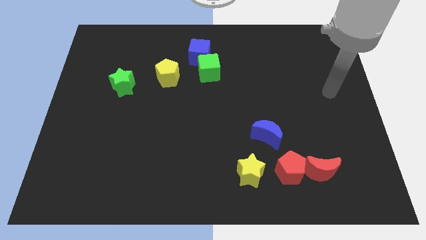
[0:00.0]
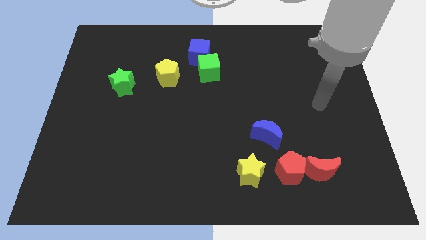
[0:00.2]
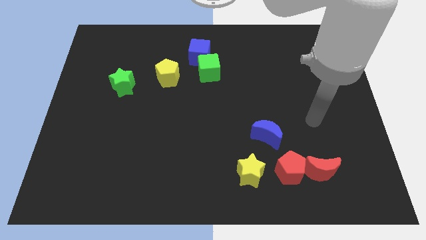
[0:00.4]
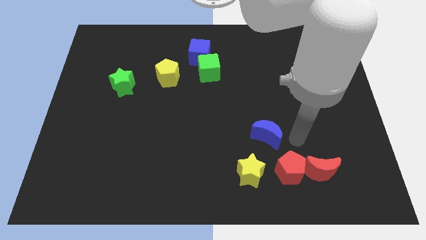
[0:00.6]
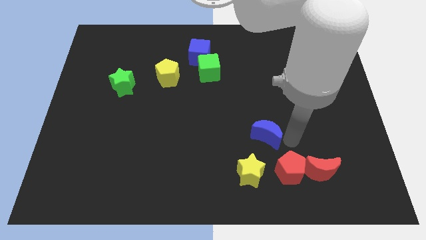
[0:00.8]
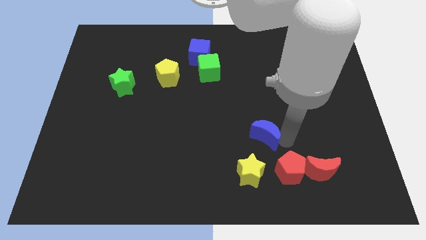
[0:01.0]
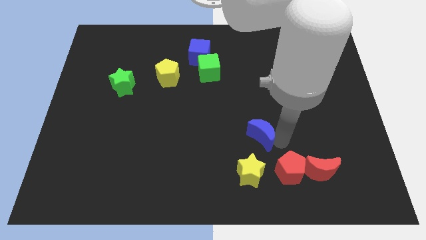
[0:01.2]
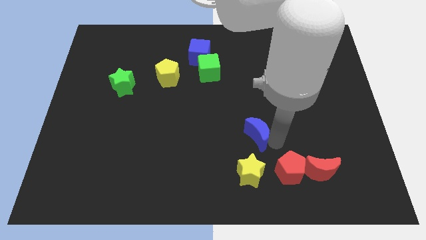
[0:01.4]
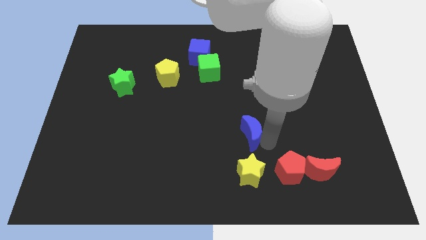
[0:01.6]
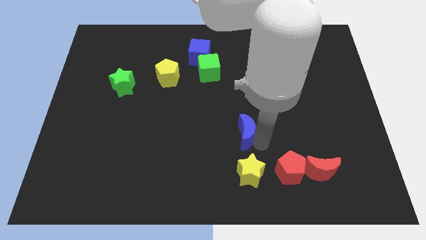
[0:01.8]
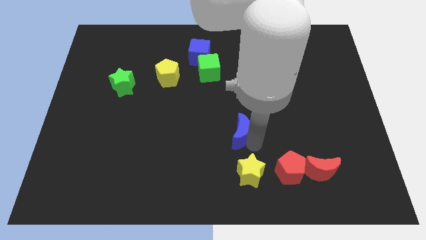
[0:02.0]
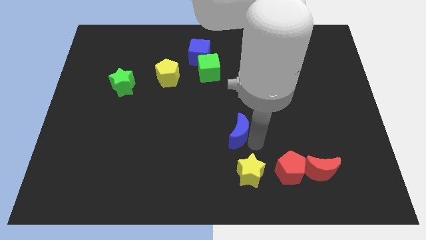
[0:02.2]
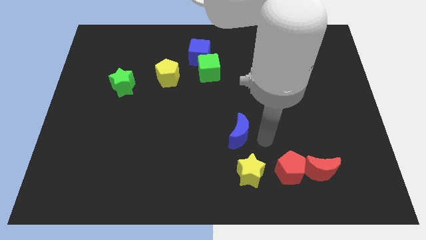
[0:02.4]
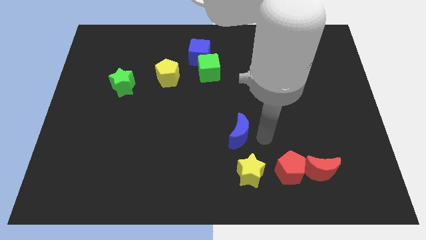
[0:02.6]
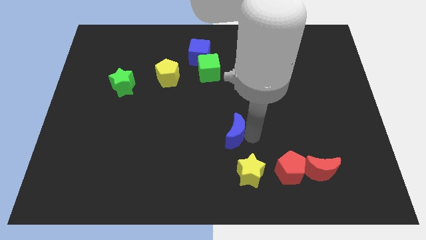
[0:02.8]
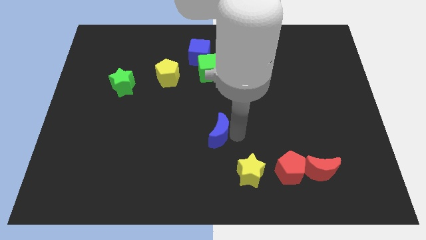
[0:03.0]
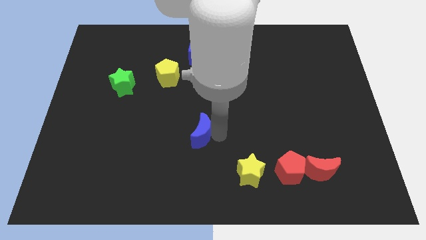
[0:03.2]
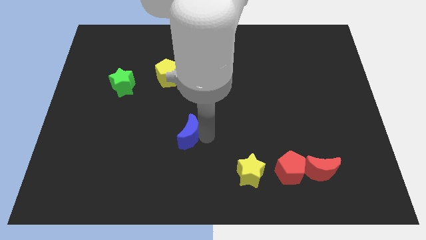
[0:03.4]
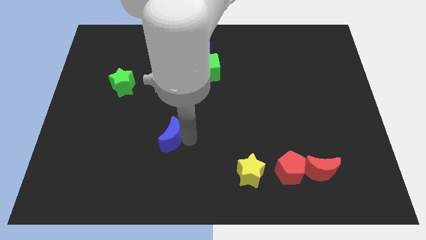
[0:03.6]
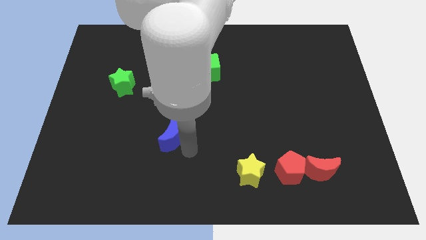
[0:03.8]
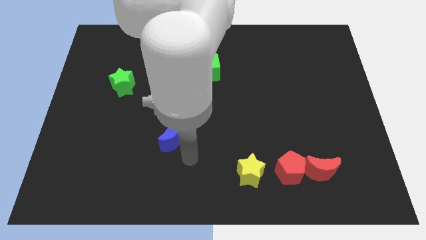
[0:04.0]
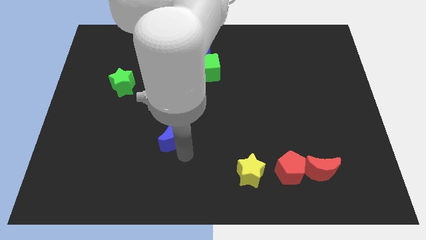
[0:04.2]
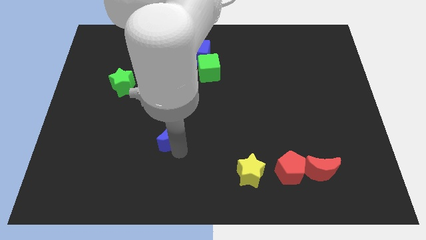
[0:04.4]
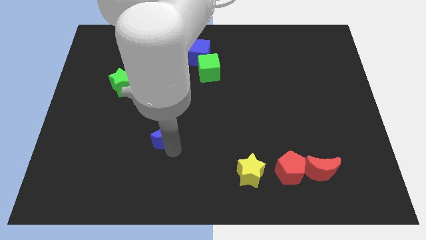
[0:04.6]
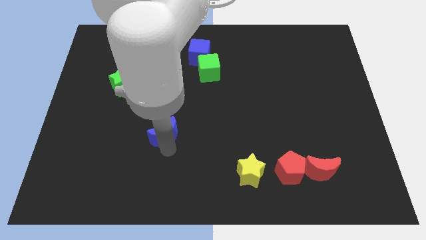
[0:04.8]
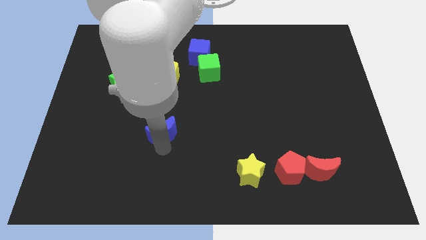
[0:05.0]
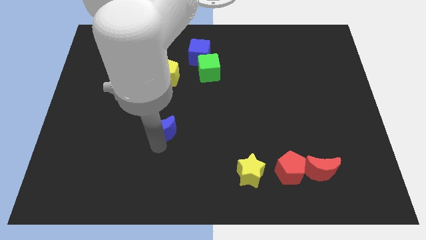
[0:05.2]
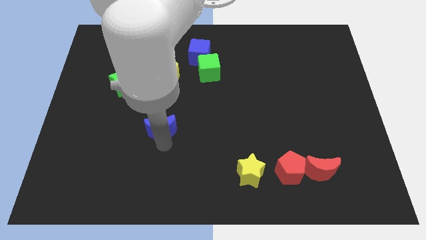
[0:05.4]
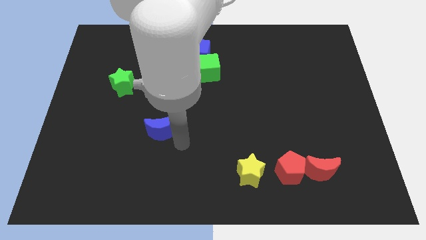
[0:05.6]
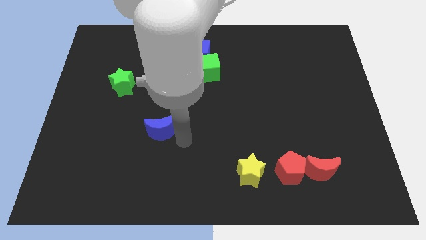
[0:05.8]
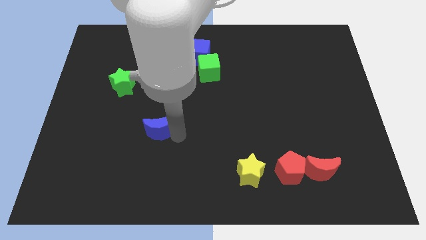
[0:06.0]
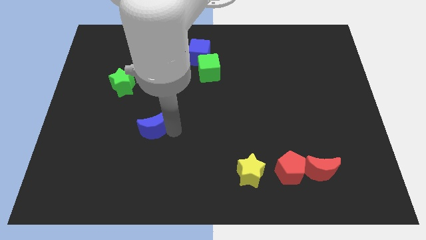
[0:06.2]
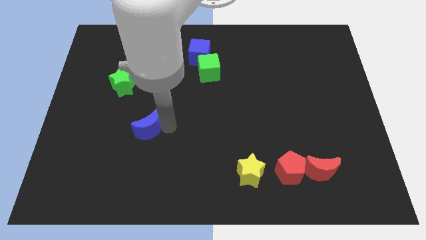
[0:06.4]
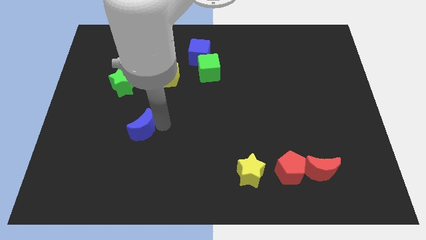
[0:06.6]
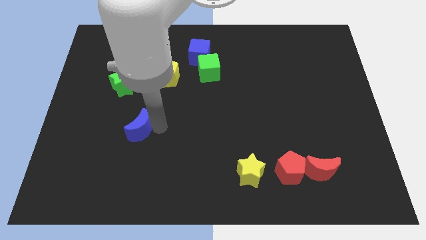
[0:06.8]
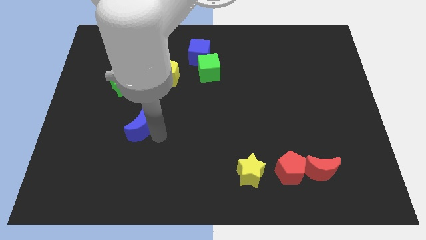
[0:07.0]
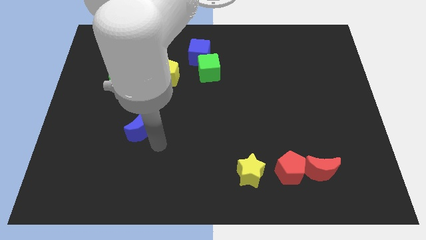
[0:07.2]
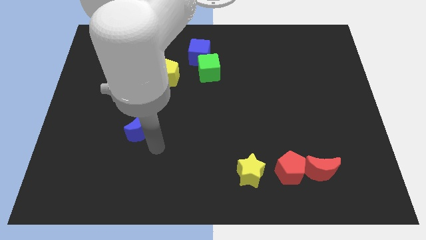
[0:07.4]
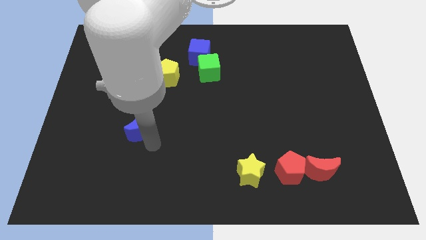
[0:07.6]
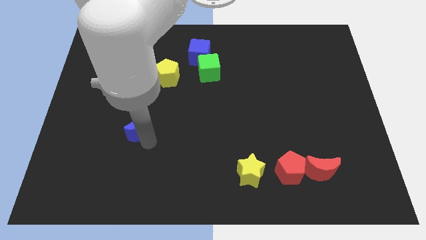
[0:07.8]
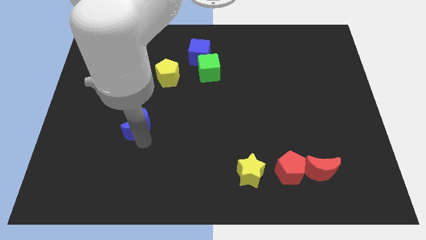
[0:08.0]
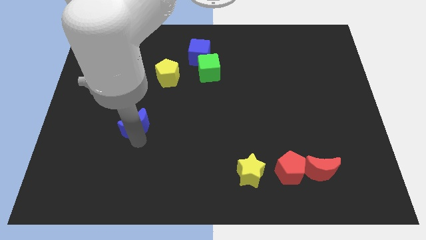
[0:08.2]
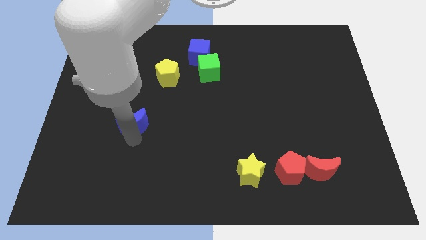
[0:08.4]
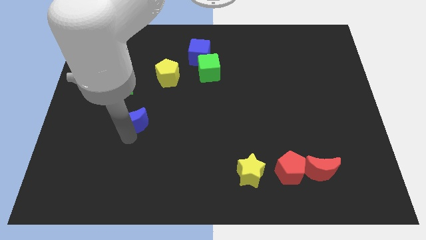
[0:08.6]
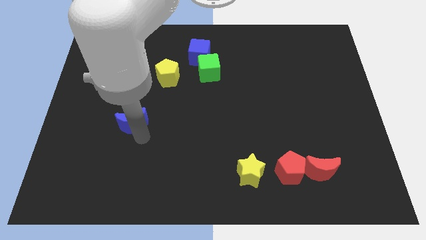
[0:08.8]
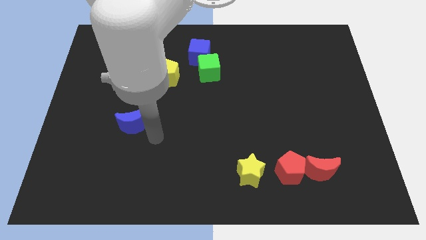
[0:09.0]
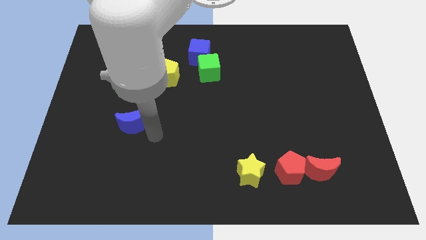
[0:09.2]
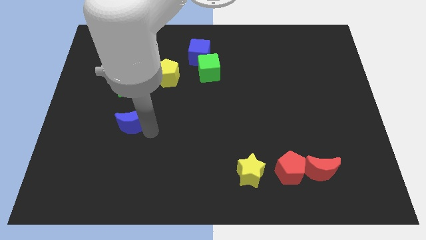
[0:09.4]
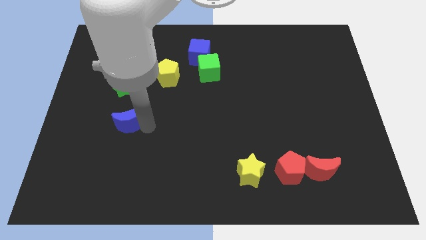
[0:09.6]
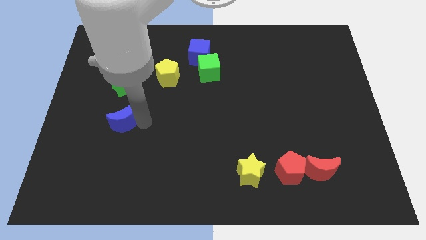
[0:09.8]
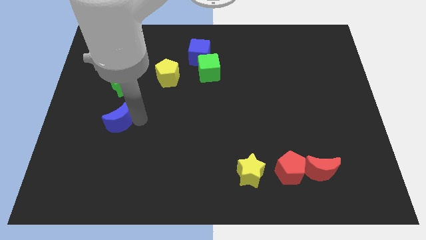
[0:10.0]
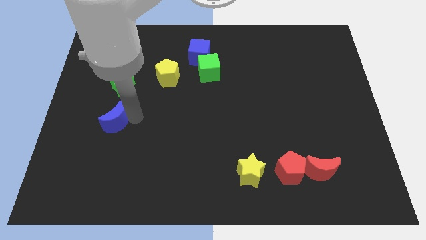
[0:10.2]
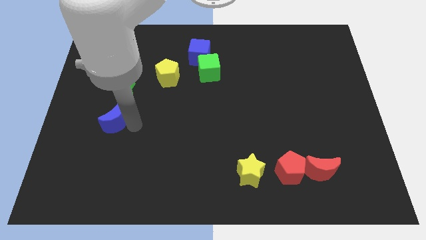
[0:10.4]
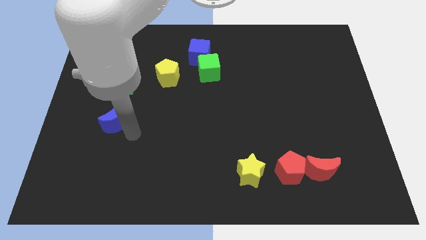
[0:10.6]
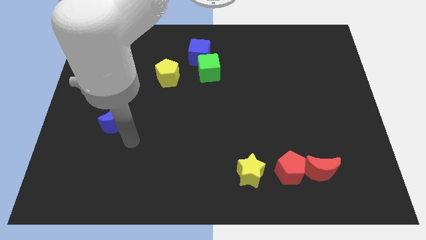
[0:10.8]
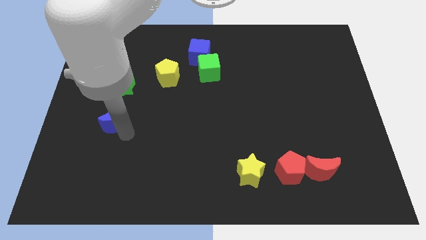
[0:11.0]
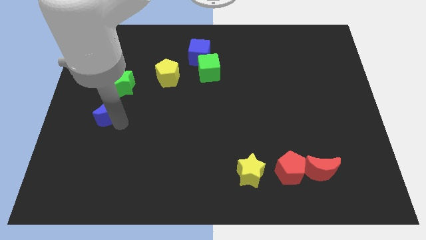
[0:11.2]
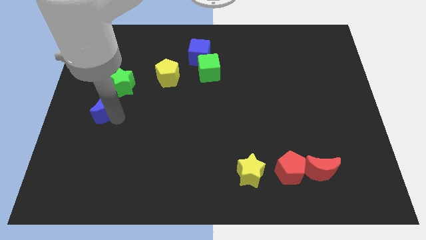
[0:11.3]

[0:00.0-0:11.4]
put the blue moon to the center left

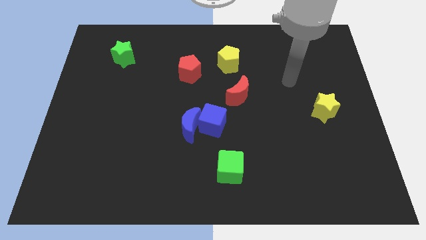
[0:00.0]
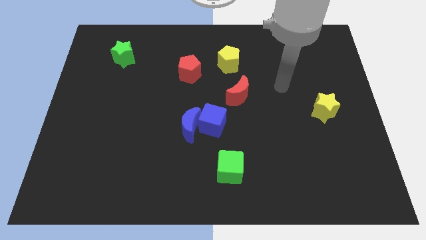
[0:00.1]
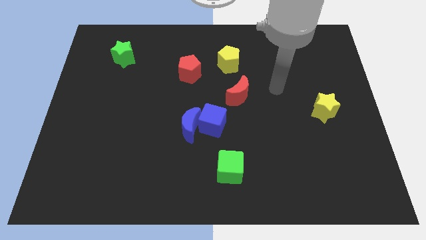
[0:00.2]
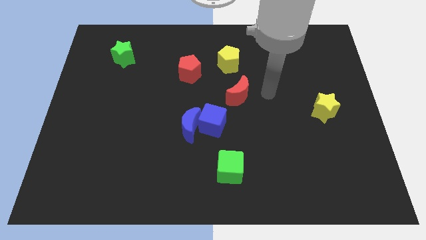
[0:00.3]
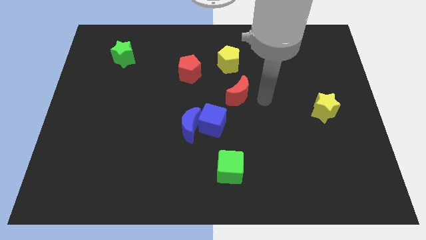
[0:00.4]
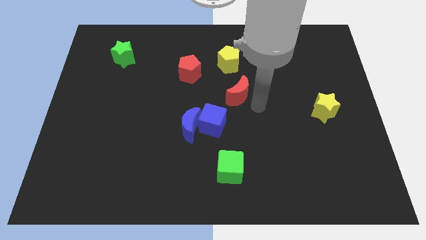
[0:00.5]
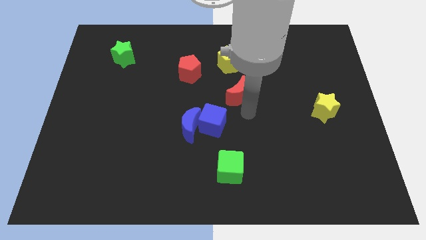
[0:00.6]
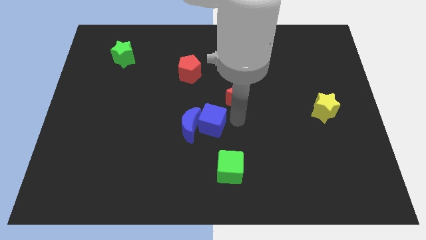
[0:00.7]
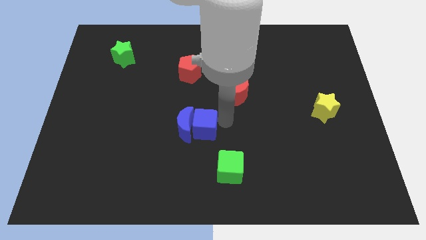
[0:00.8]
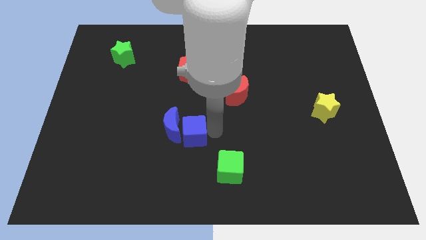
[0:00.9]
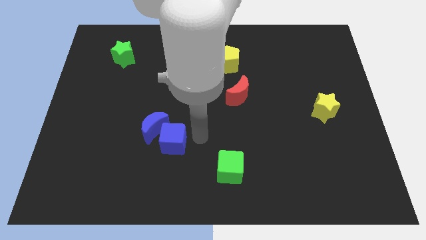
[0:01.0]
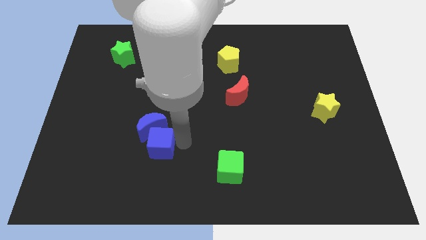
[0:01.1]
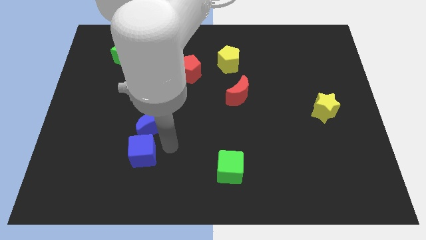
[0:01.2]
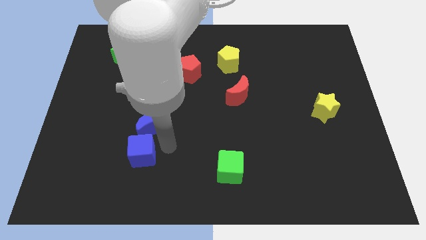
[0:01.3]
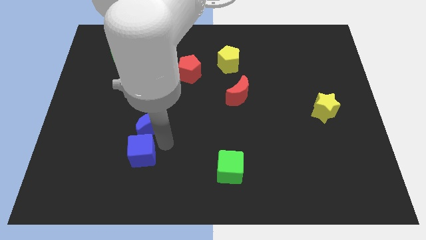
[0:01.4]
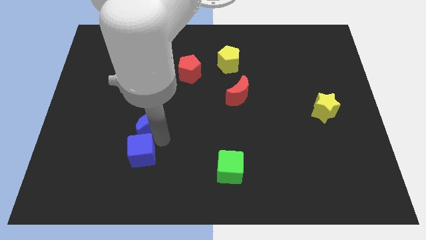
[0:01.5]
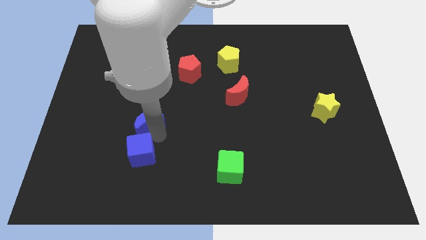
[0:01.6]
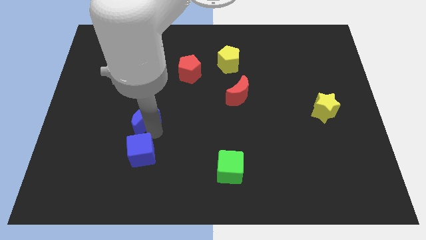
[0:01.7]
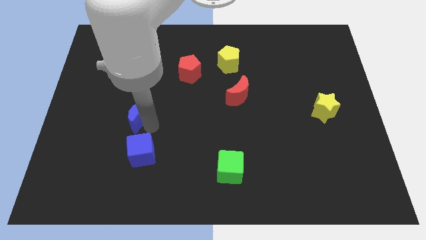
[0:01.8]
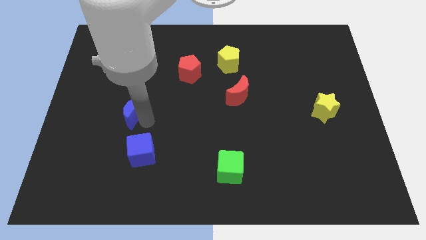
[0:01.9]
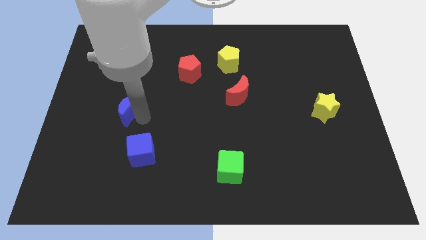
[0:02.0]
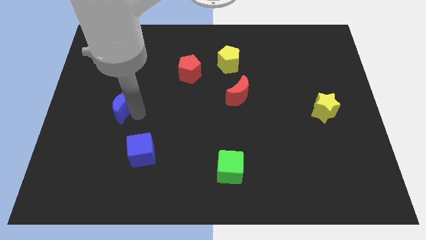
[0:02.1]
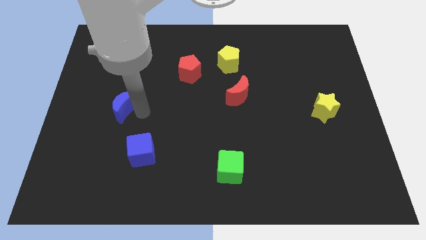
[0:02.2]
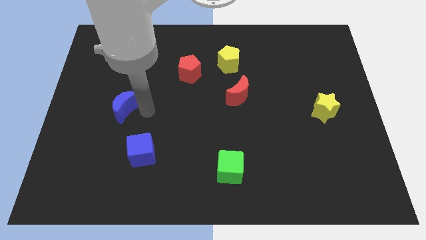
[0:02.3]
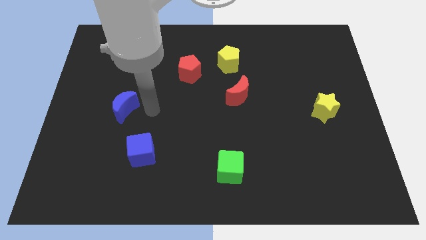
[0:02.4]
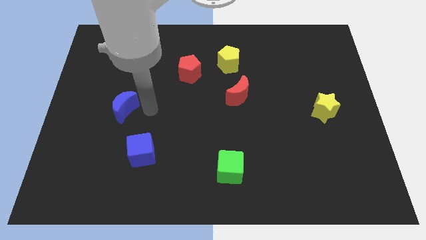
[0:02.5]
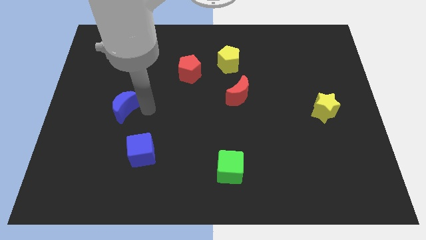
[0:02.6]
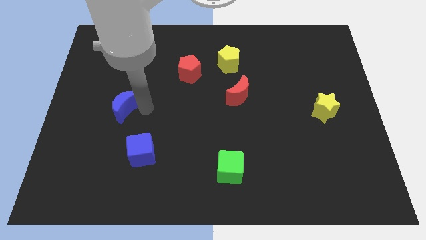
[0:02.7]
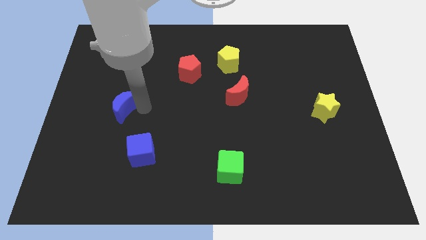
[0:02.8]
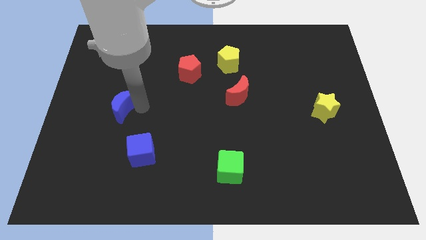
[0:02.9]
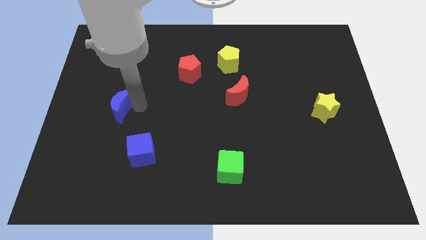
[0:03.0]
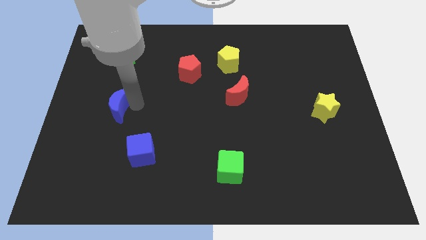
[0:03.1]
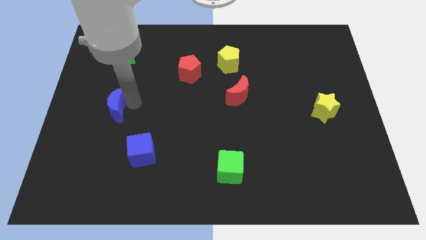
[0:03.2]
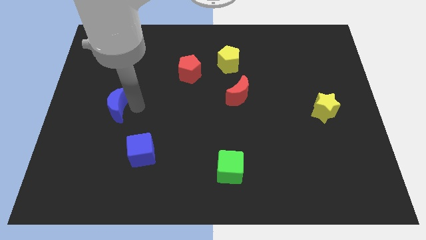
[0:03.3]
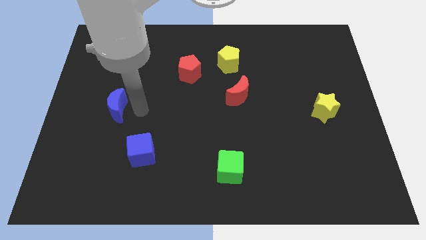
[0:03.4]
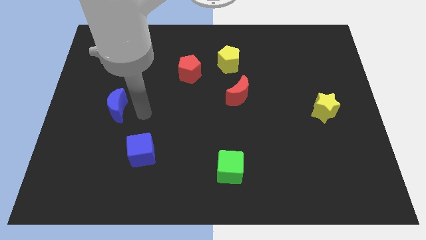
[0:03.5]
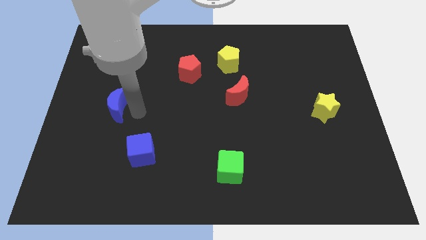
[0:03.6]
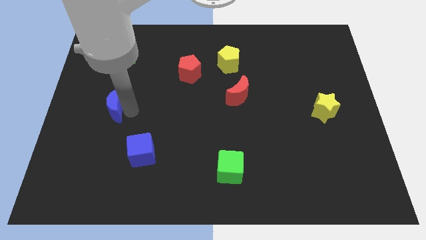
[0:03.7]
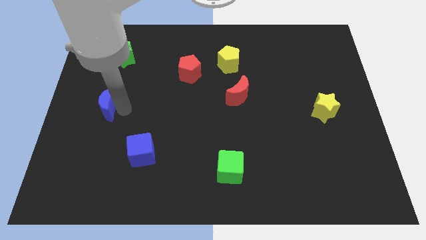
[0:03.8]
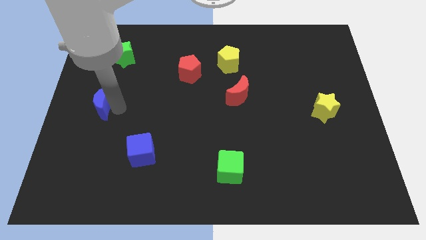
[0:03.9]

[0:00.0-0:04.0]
push the blue moon to the center left
